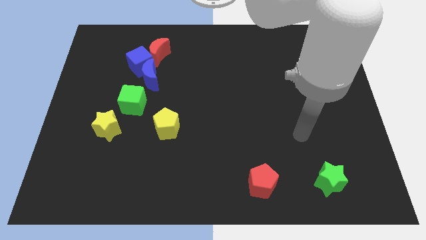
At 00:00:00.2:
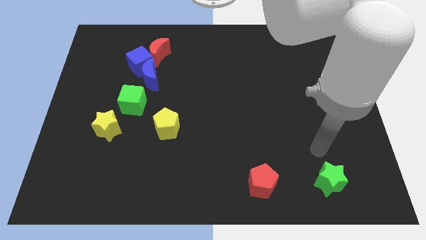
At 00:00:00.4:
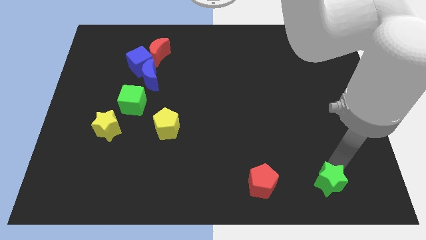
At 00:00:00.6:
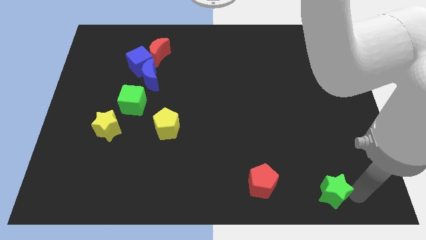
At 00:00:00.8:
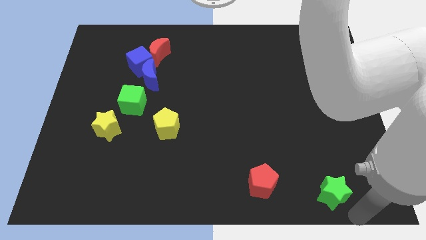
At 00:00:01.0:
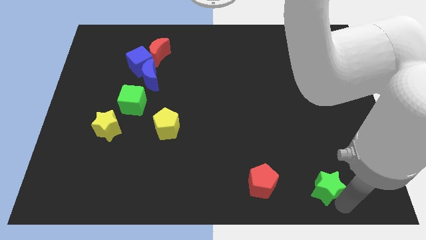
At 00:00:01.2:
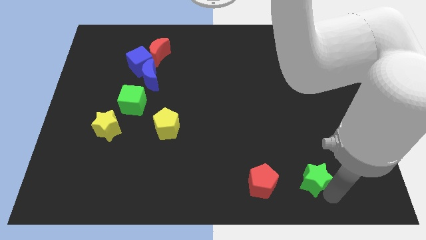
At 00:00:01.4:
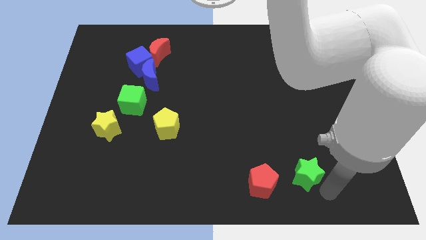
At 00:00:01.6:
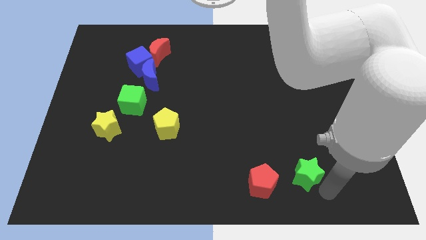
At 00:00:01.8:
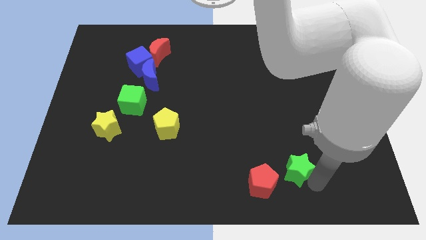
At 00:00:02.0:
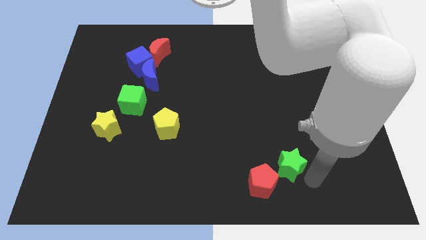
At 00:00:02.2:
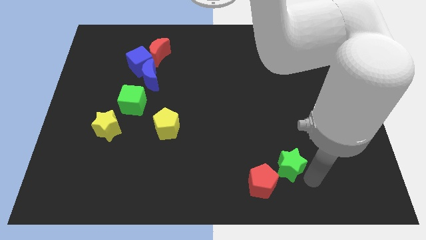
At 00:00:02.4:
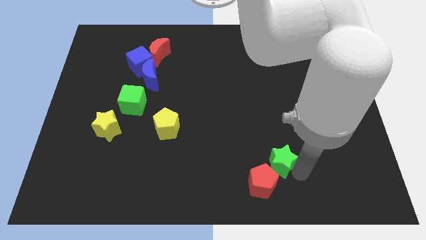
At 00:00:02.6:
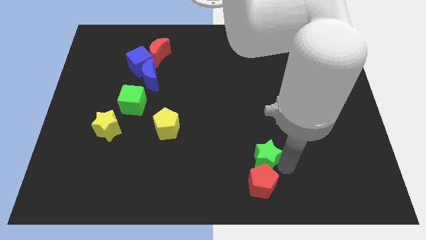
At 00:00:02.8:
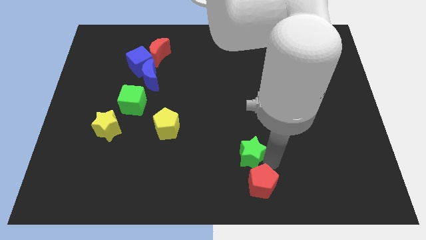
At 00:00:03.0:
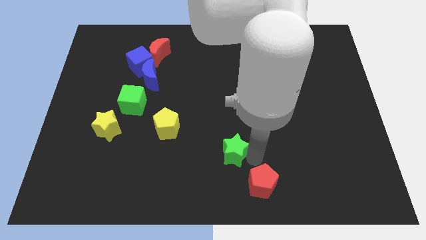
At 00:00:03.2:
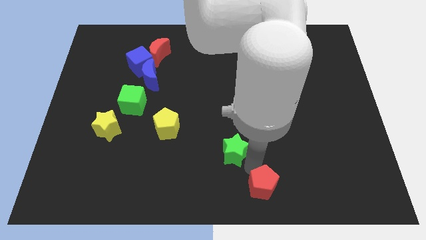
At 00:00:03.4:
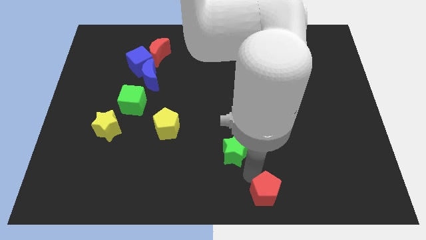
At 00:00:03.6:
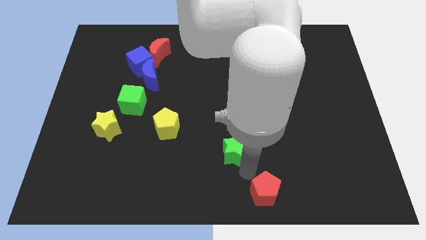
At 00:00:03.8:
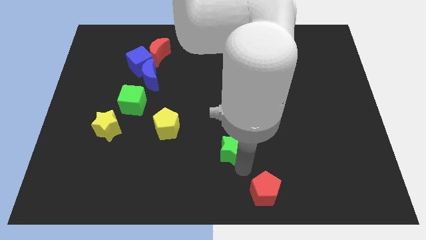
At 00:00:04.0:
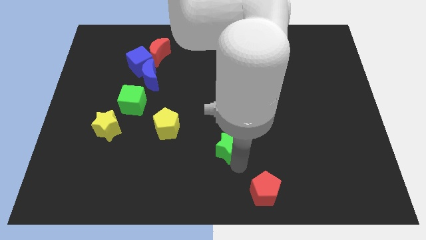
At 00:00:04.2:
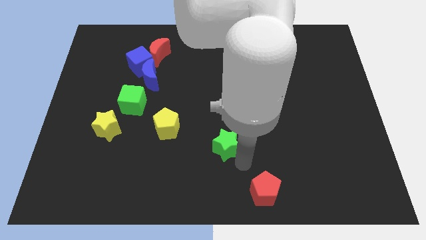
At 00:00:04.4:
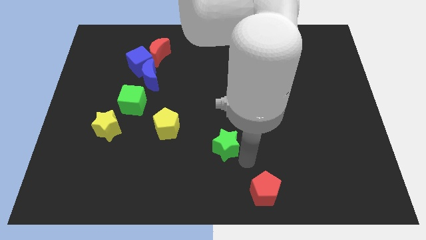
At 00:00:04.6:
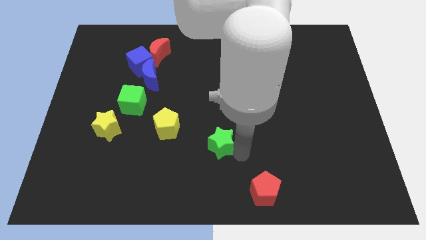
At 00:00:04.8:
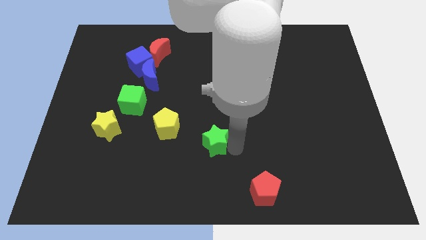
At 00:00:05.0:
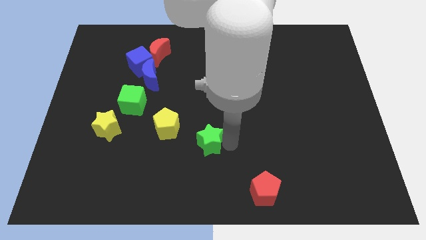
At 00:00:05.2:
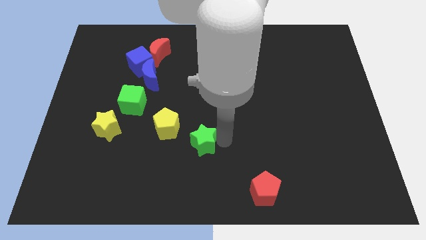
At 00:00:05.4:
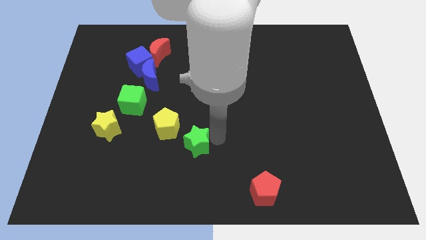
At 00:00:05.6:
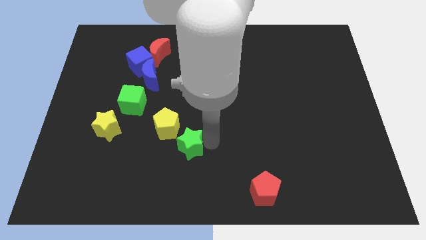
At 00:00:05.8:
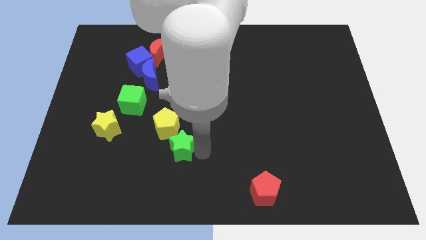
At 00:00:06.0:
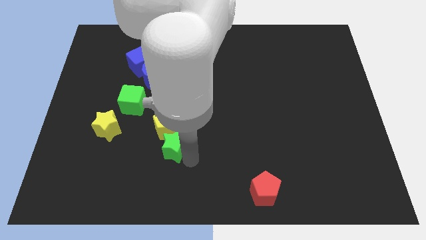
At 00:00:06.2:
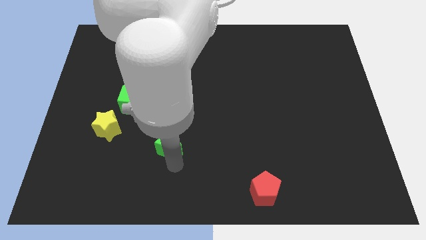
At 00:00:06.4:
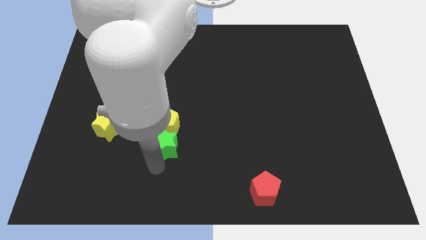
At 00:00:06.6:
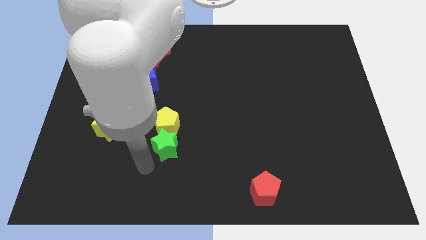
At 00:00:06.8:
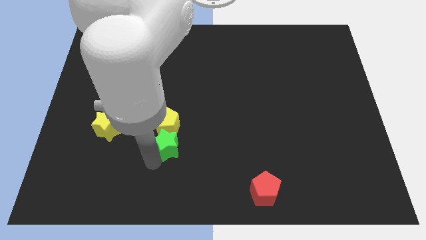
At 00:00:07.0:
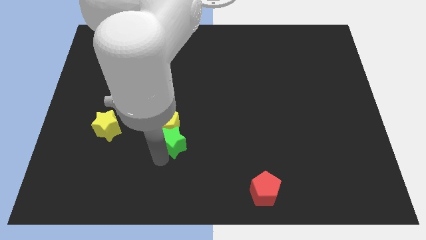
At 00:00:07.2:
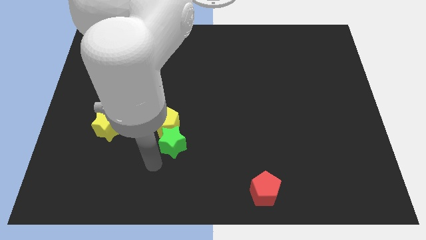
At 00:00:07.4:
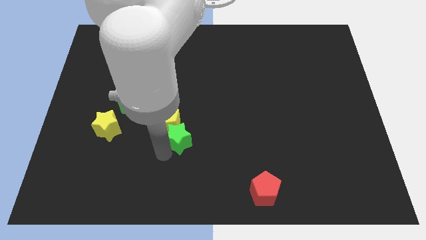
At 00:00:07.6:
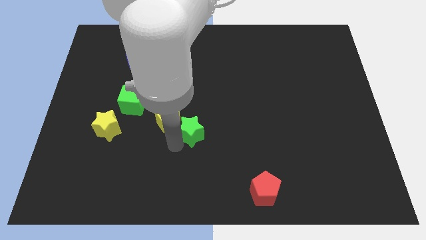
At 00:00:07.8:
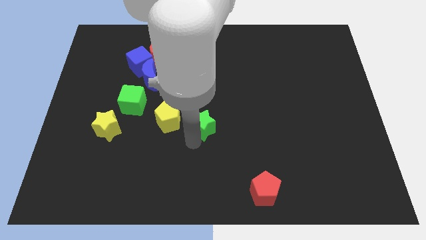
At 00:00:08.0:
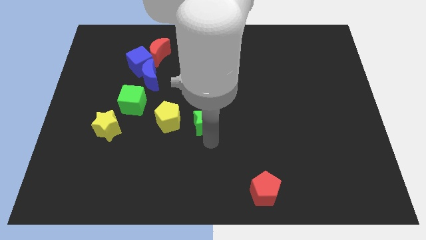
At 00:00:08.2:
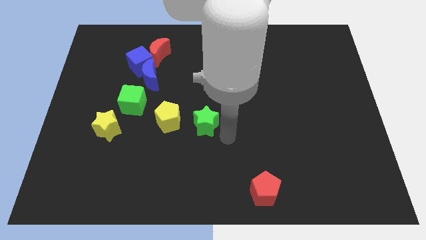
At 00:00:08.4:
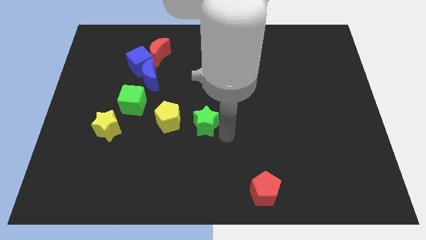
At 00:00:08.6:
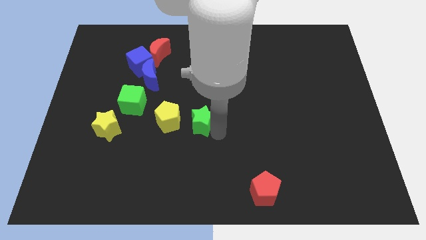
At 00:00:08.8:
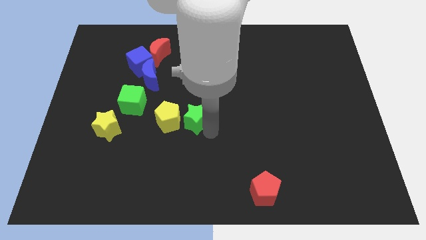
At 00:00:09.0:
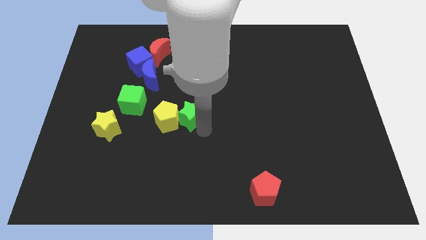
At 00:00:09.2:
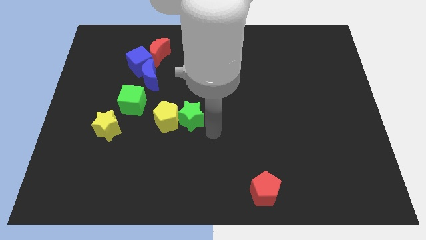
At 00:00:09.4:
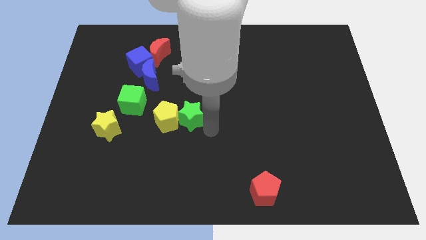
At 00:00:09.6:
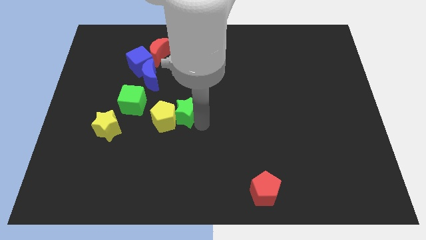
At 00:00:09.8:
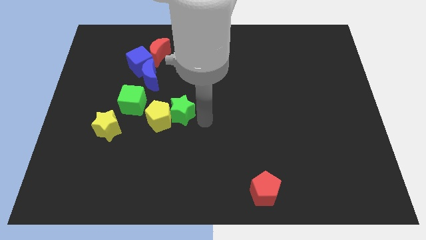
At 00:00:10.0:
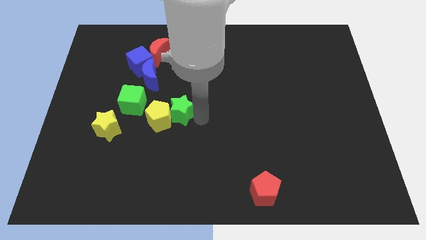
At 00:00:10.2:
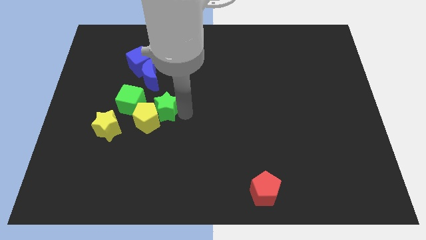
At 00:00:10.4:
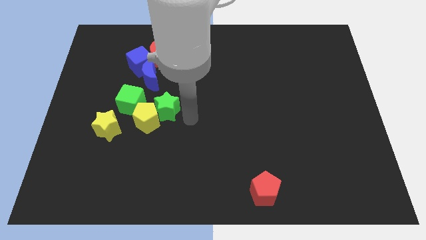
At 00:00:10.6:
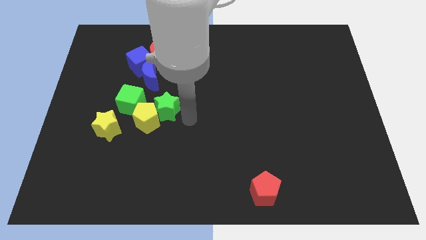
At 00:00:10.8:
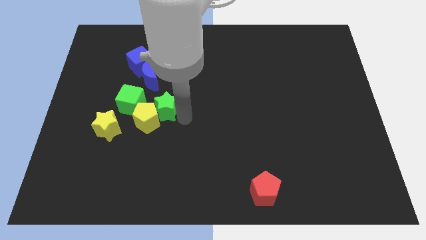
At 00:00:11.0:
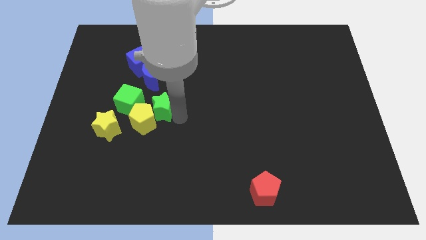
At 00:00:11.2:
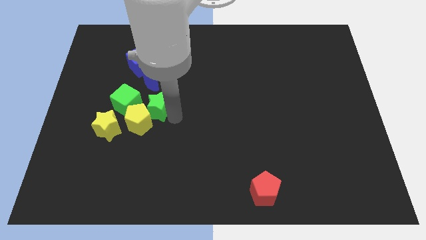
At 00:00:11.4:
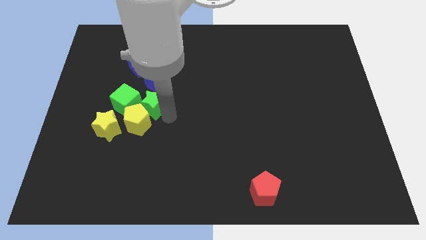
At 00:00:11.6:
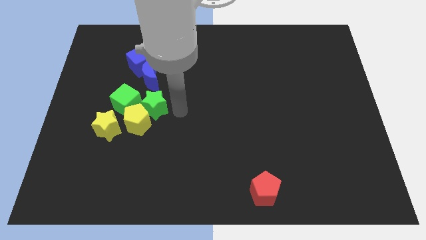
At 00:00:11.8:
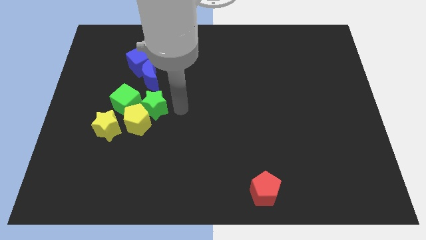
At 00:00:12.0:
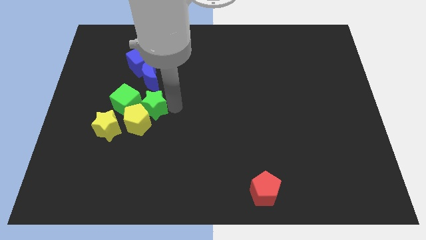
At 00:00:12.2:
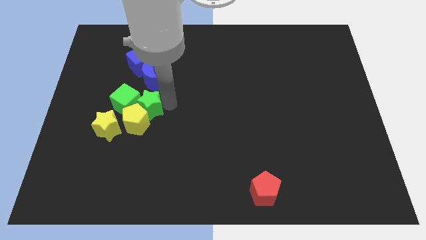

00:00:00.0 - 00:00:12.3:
push the green star next to the green cube
